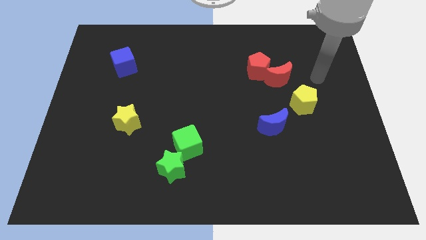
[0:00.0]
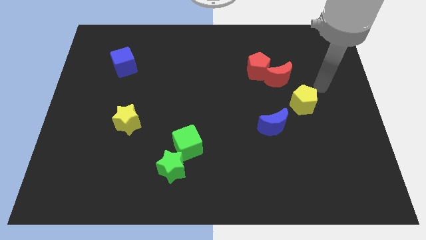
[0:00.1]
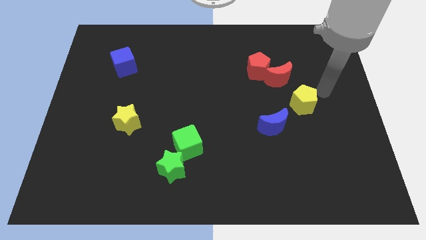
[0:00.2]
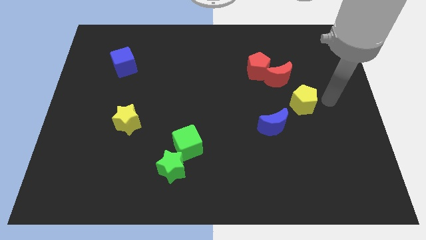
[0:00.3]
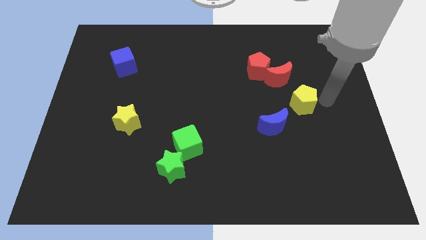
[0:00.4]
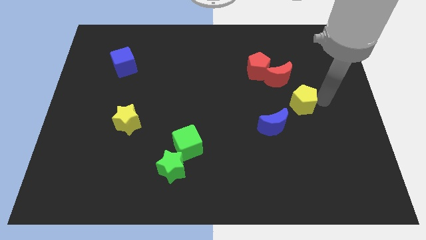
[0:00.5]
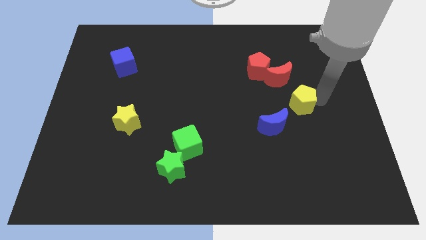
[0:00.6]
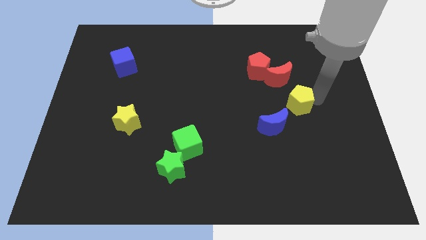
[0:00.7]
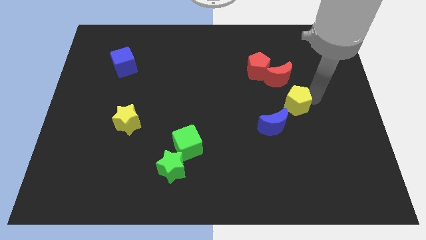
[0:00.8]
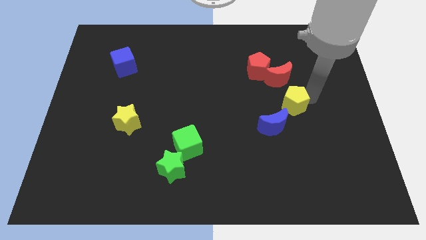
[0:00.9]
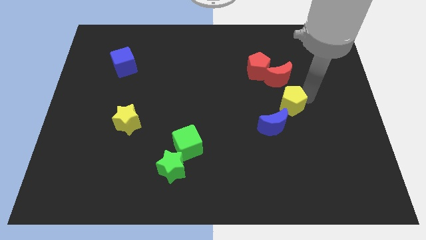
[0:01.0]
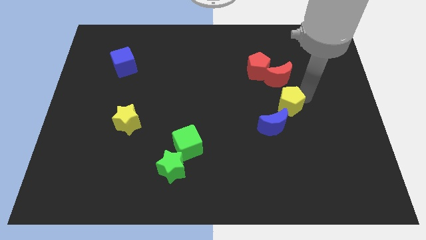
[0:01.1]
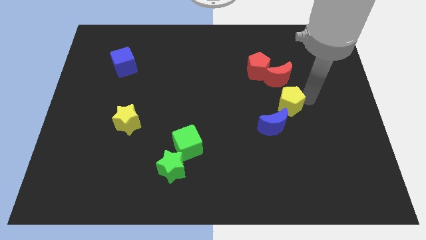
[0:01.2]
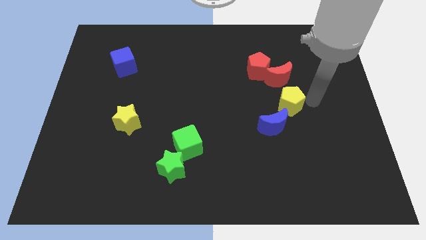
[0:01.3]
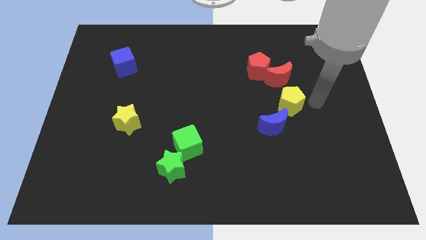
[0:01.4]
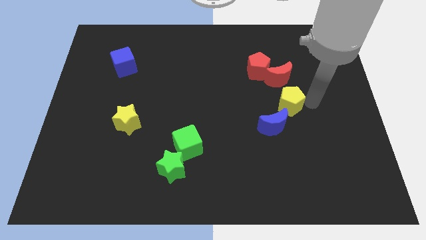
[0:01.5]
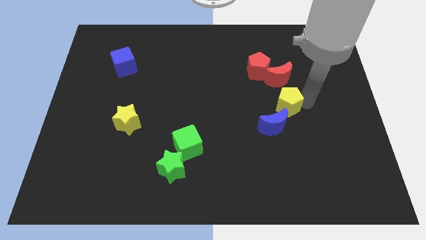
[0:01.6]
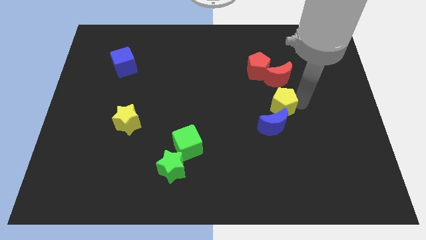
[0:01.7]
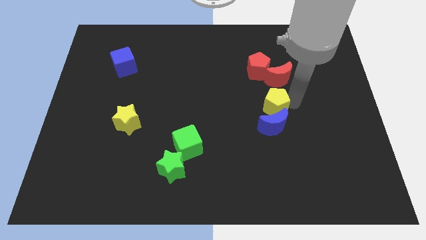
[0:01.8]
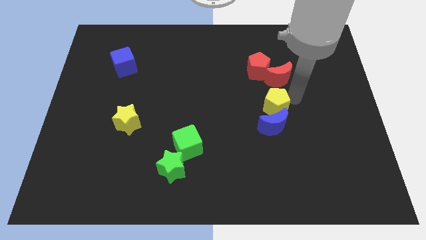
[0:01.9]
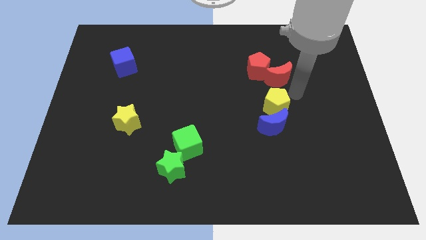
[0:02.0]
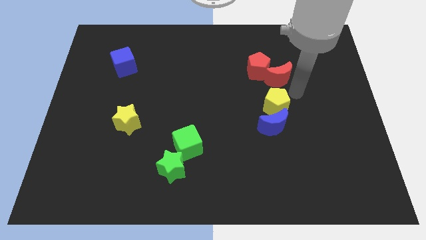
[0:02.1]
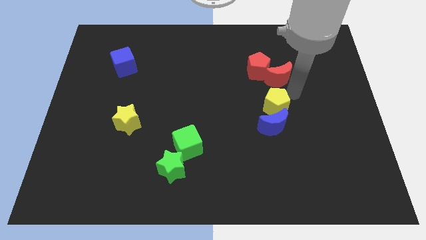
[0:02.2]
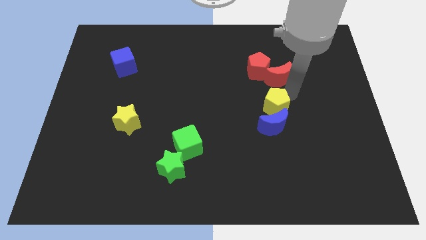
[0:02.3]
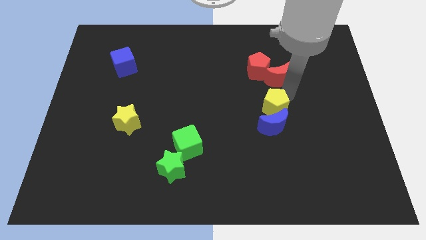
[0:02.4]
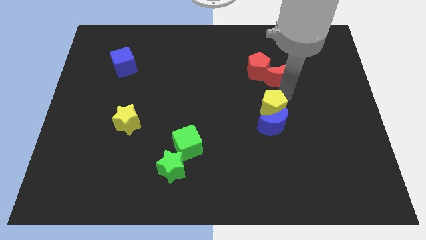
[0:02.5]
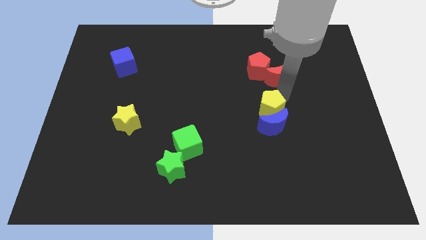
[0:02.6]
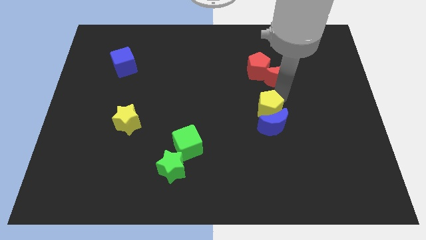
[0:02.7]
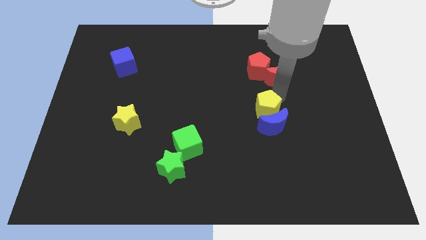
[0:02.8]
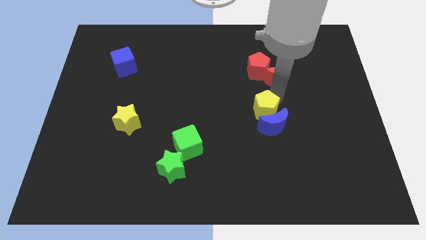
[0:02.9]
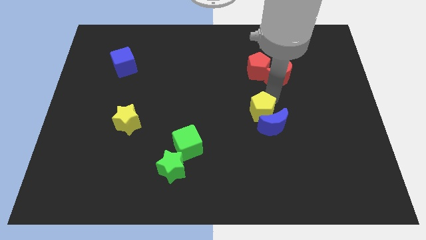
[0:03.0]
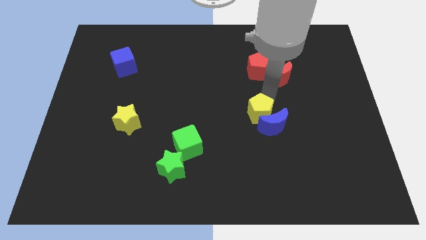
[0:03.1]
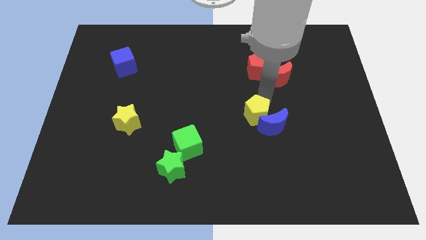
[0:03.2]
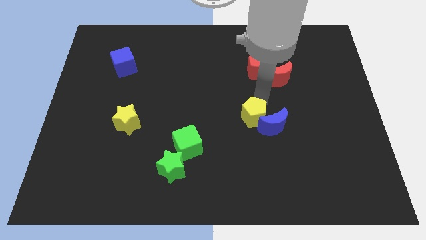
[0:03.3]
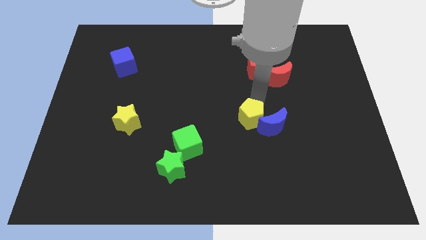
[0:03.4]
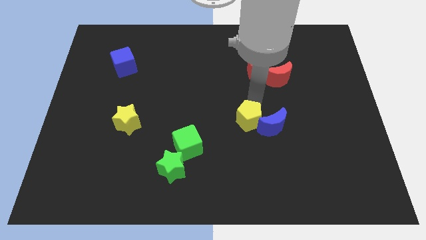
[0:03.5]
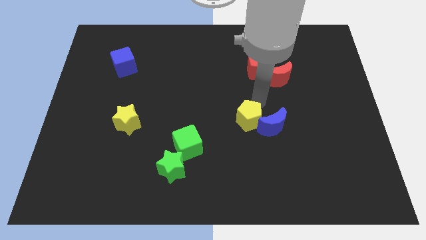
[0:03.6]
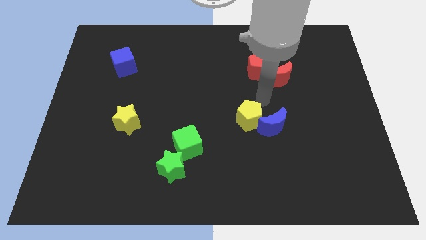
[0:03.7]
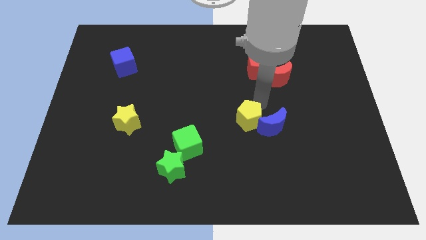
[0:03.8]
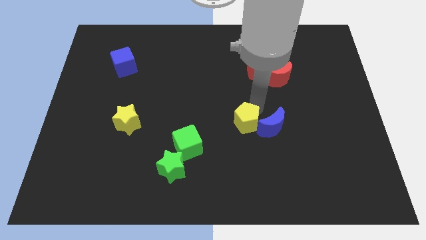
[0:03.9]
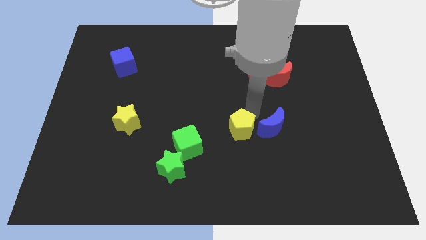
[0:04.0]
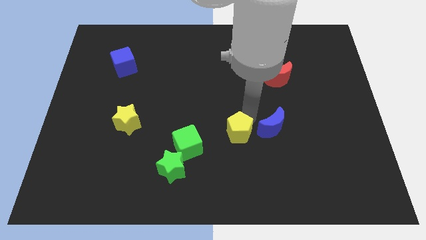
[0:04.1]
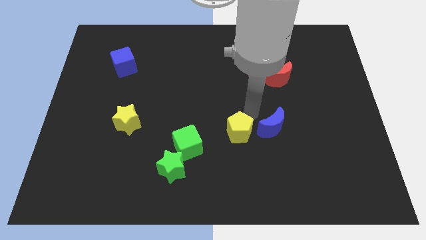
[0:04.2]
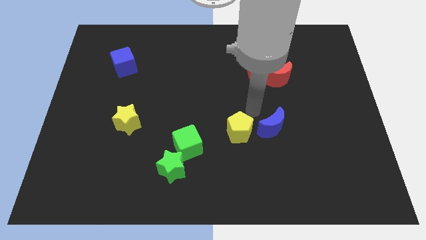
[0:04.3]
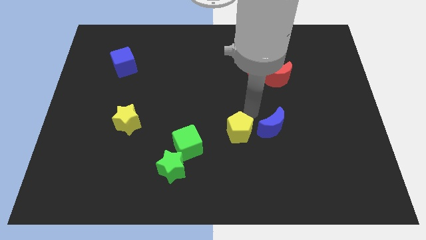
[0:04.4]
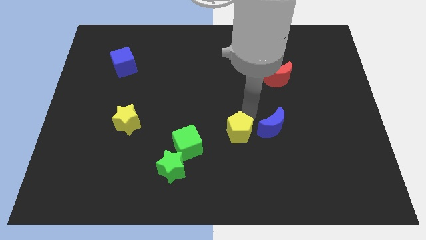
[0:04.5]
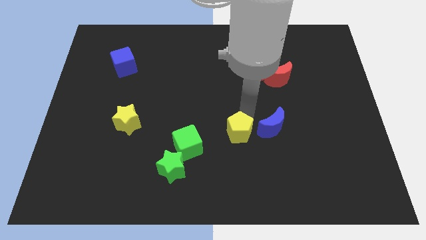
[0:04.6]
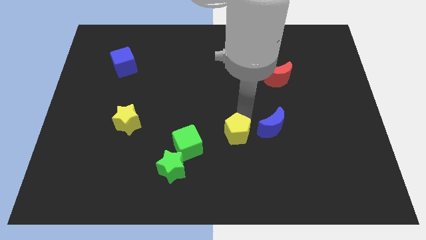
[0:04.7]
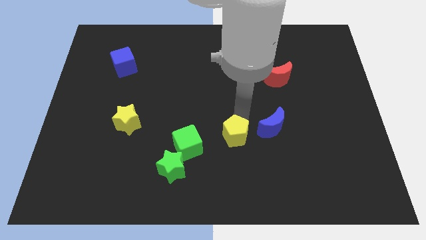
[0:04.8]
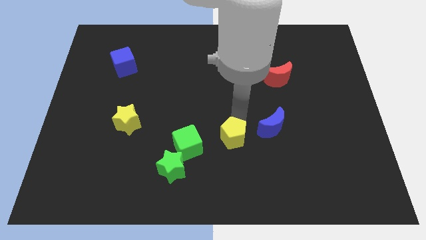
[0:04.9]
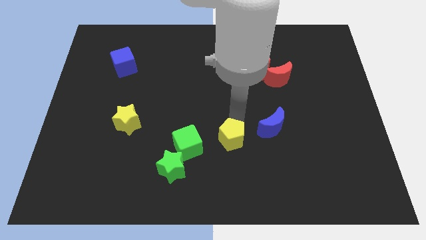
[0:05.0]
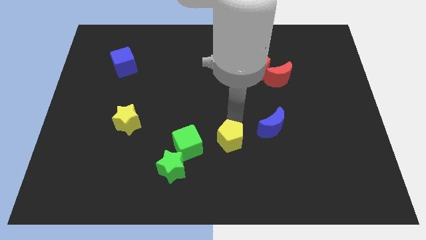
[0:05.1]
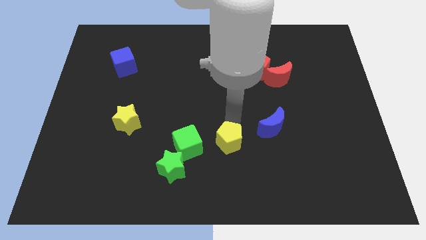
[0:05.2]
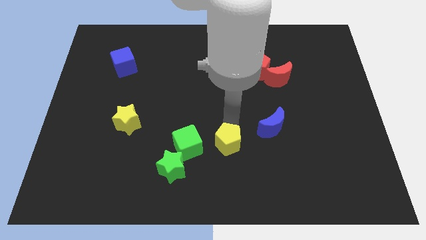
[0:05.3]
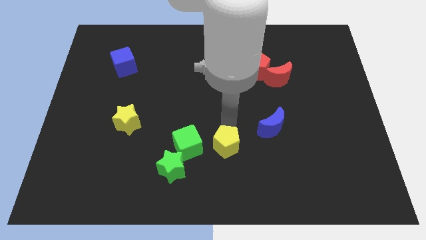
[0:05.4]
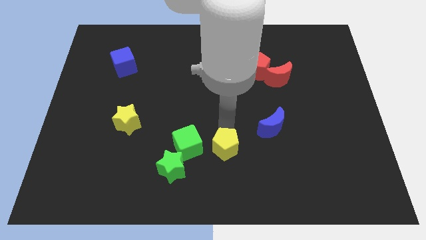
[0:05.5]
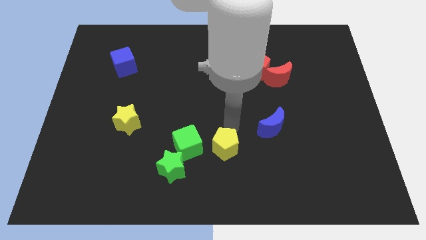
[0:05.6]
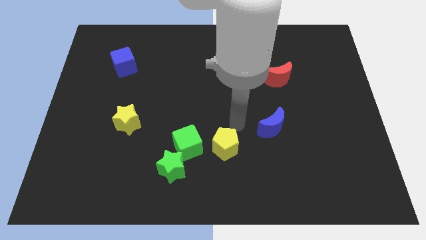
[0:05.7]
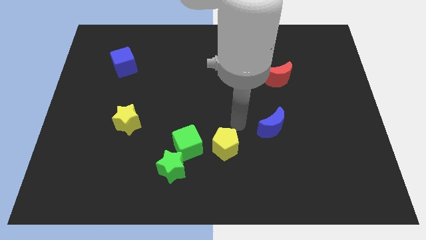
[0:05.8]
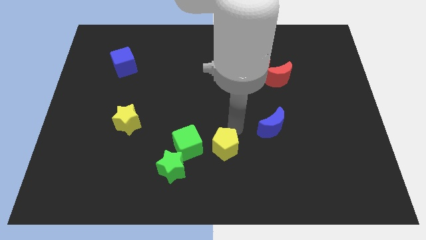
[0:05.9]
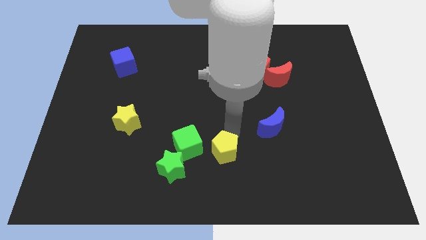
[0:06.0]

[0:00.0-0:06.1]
put the yellow pentagon diagonally down and to the right of the green cube

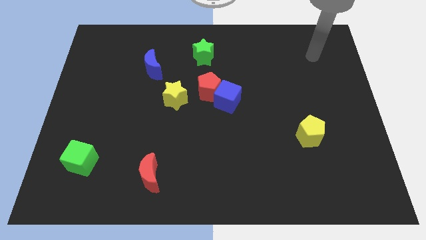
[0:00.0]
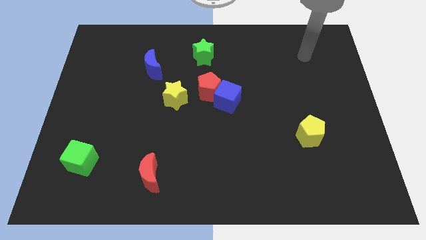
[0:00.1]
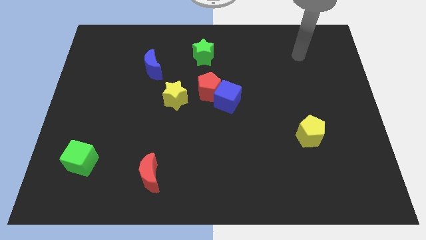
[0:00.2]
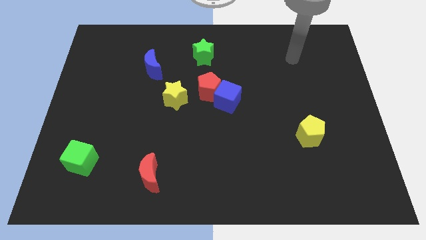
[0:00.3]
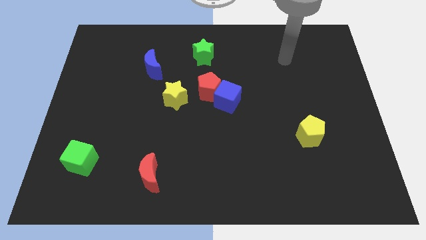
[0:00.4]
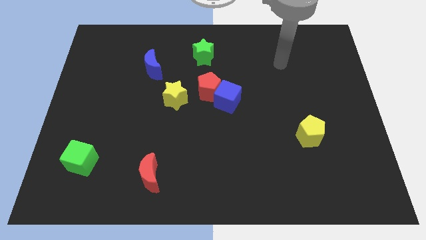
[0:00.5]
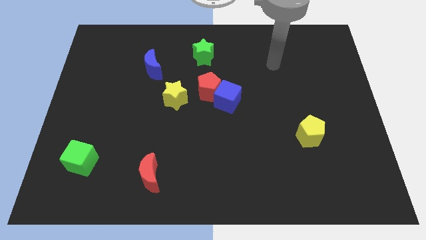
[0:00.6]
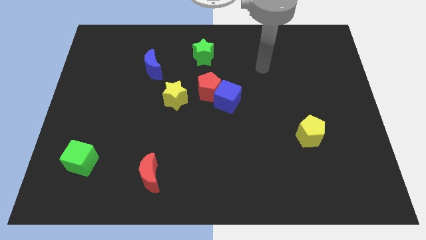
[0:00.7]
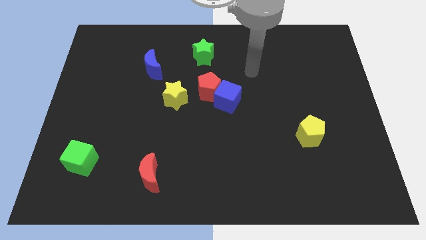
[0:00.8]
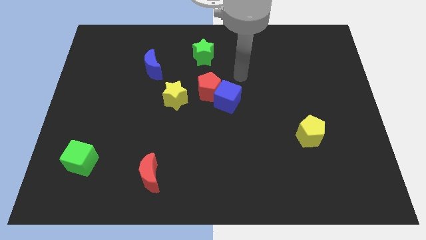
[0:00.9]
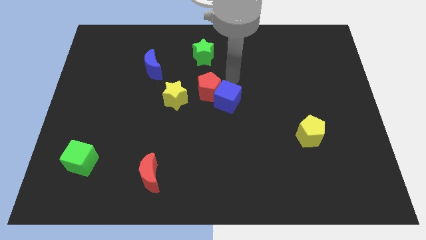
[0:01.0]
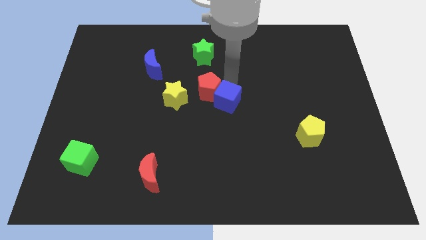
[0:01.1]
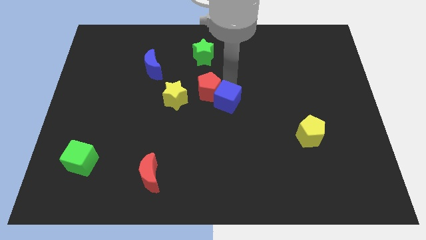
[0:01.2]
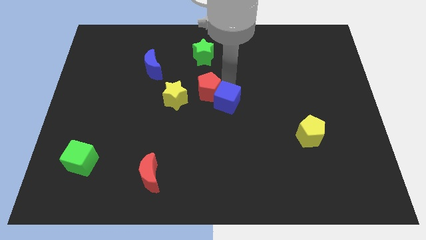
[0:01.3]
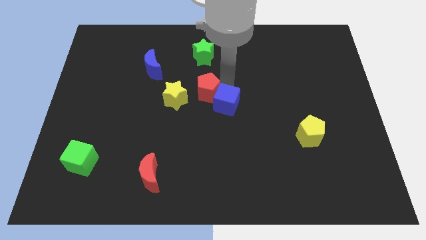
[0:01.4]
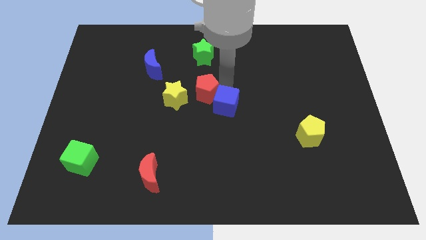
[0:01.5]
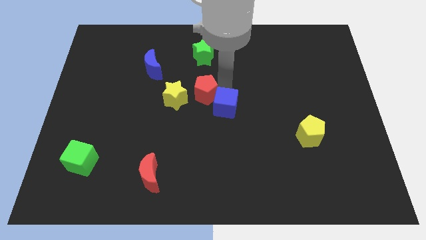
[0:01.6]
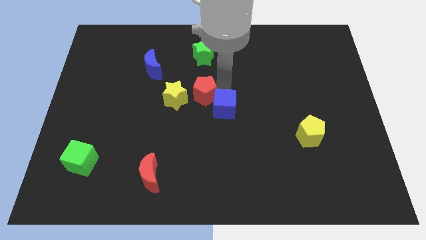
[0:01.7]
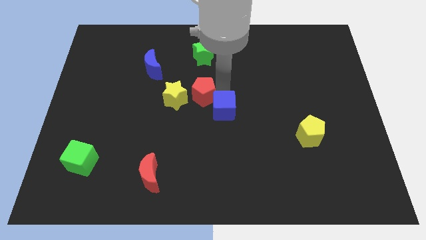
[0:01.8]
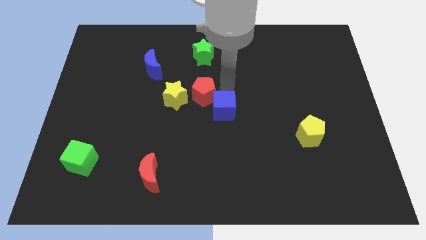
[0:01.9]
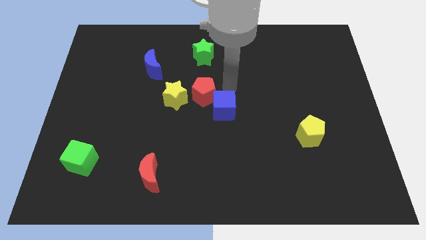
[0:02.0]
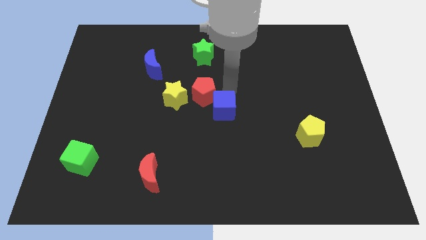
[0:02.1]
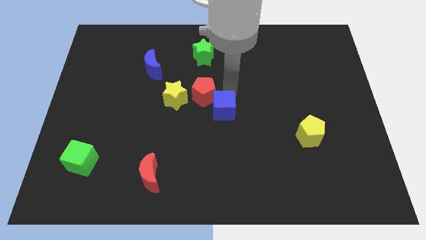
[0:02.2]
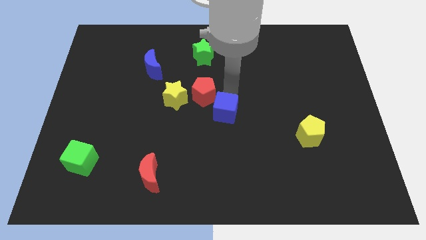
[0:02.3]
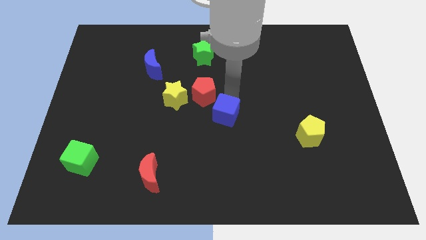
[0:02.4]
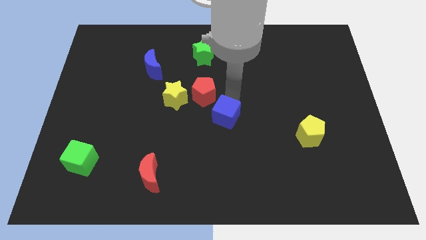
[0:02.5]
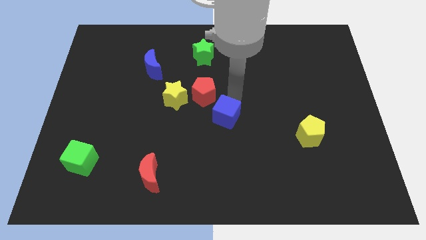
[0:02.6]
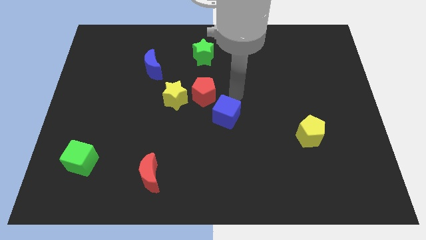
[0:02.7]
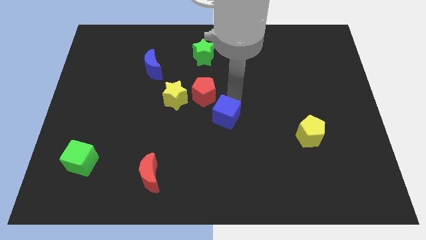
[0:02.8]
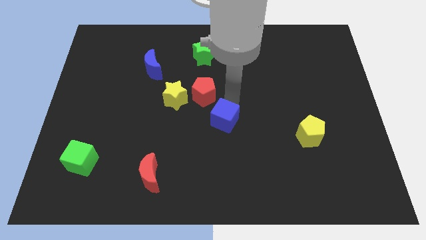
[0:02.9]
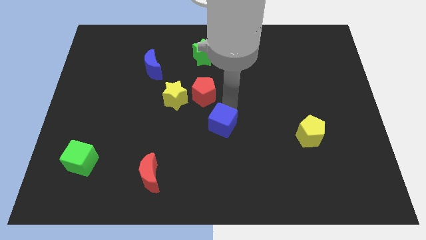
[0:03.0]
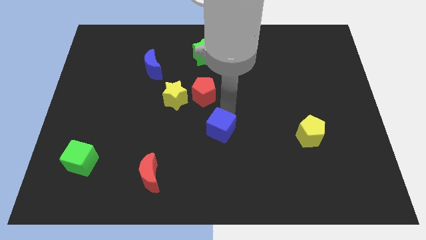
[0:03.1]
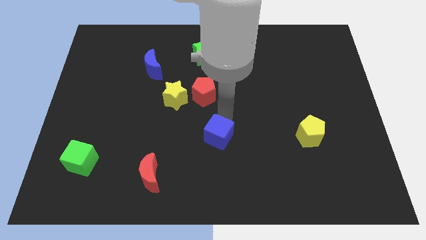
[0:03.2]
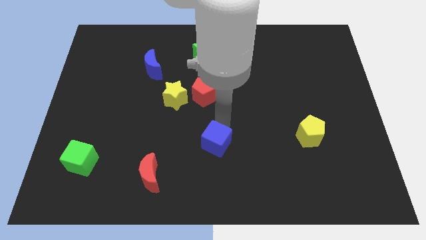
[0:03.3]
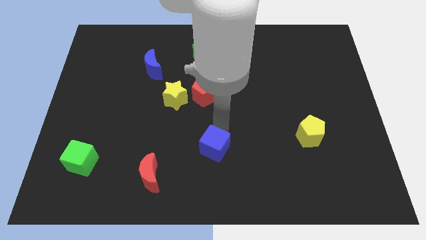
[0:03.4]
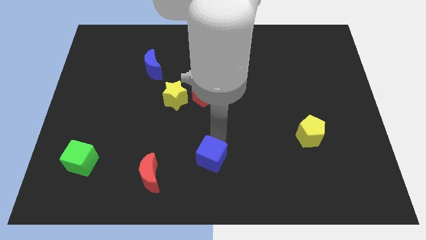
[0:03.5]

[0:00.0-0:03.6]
put the blue cube right of the red moon
